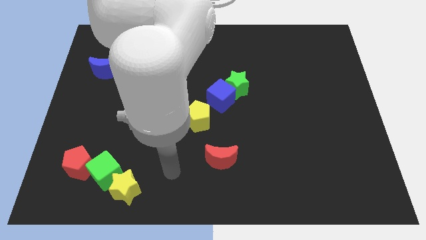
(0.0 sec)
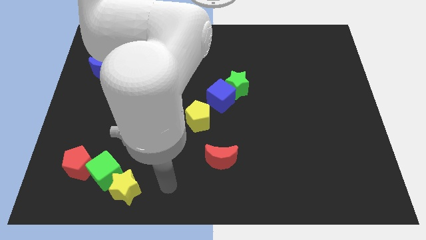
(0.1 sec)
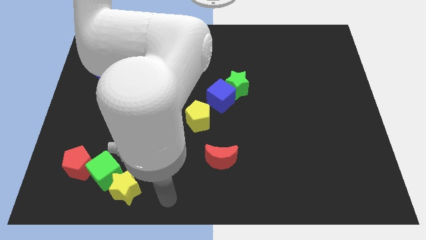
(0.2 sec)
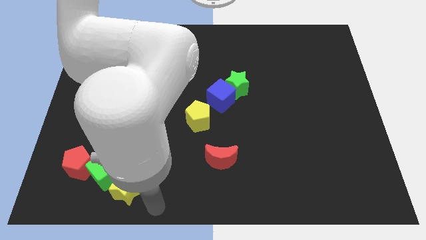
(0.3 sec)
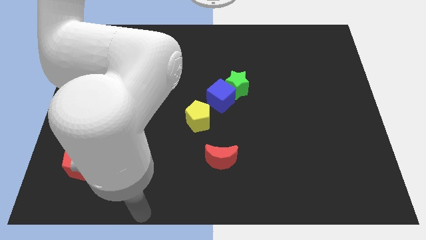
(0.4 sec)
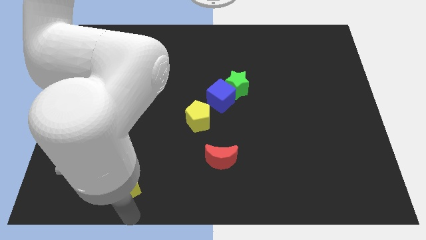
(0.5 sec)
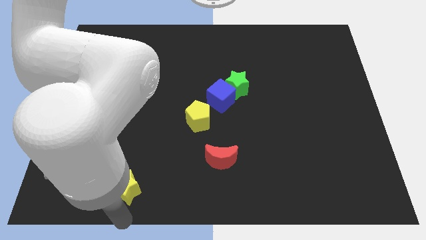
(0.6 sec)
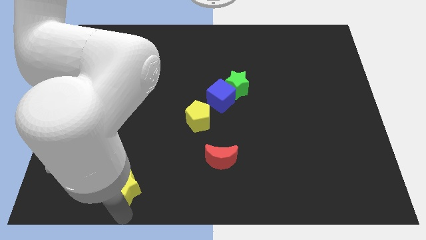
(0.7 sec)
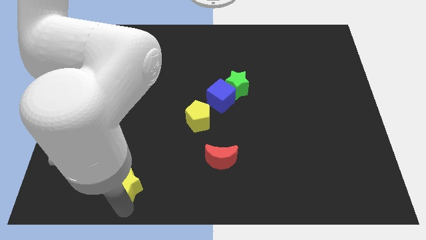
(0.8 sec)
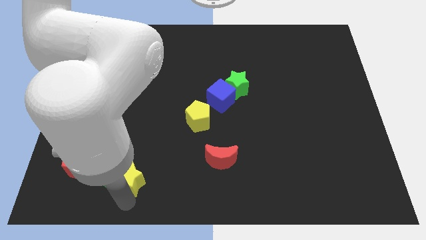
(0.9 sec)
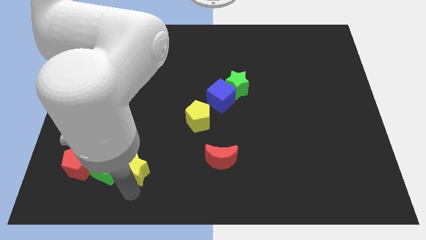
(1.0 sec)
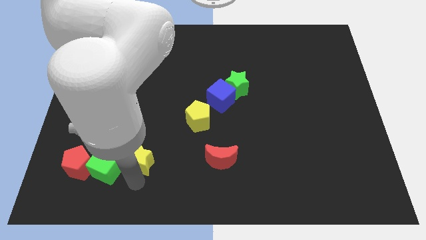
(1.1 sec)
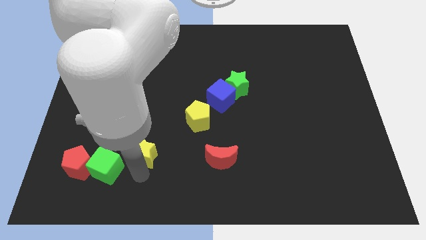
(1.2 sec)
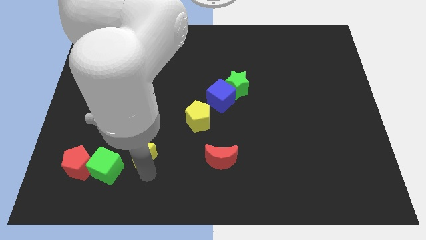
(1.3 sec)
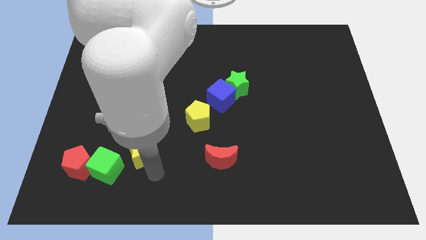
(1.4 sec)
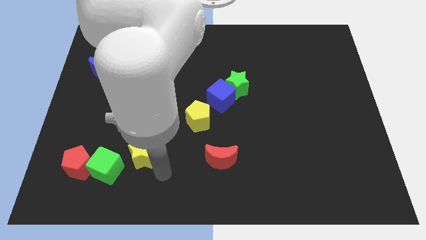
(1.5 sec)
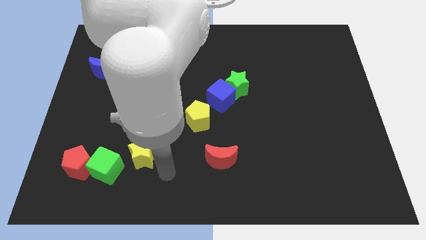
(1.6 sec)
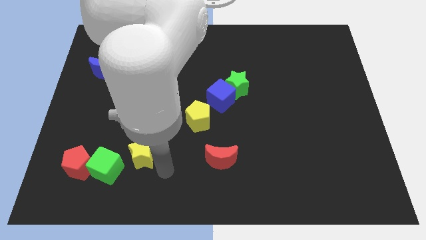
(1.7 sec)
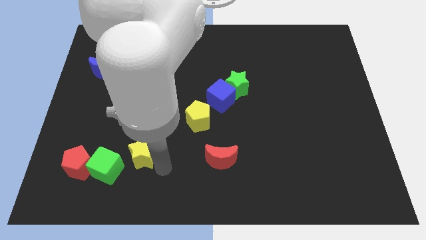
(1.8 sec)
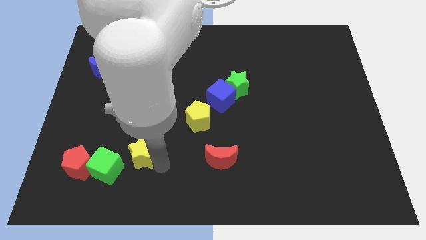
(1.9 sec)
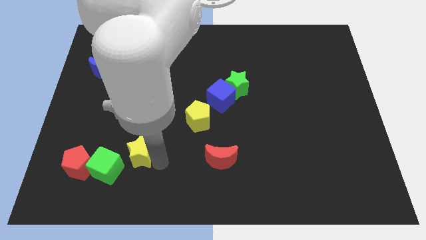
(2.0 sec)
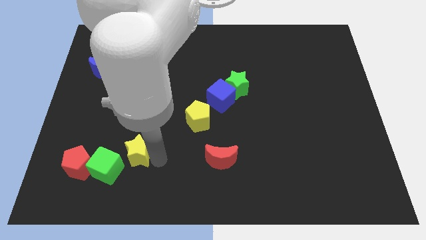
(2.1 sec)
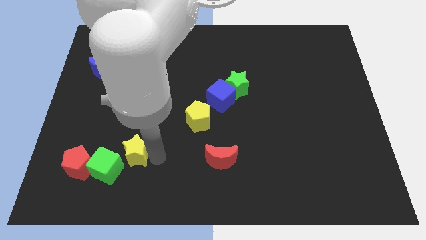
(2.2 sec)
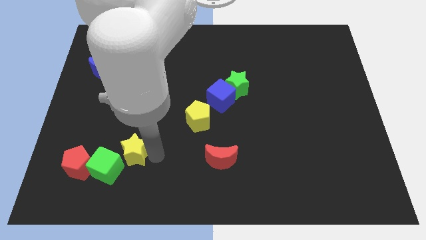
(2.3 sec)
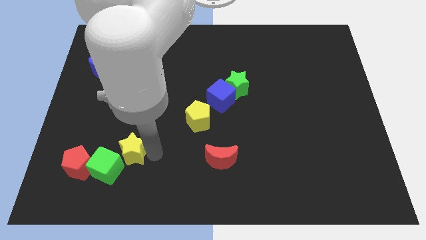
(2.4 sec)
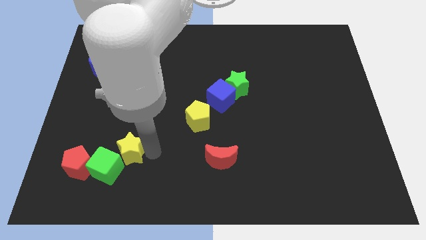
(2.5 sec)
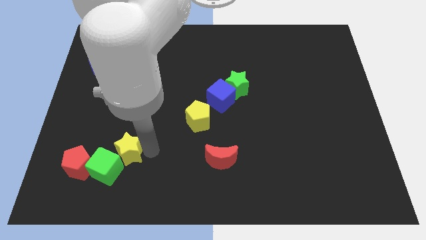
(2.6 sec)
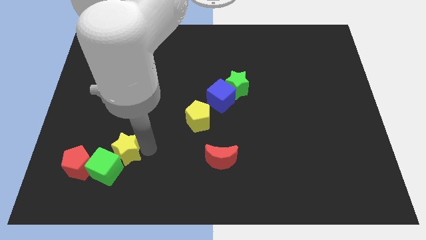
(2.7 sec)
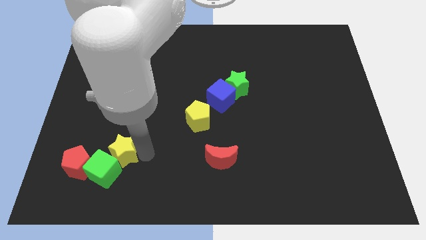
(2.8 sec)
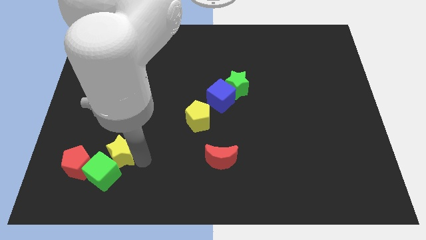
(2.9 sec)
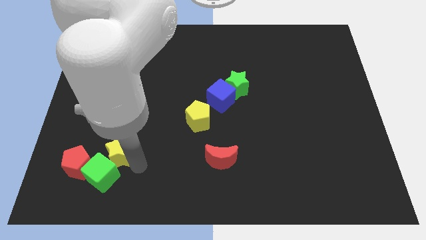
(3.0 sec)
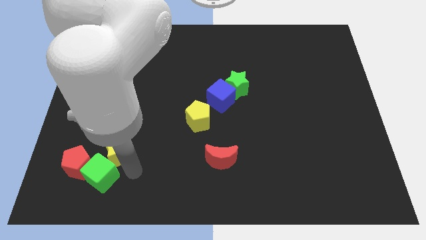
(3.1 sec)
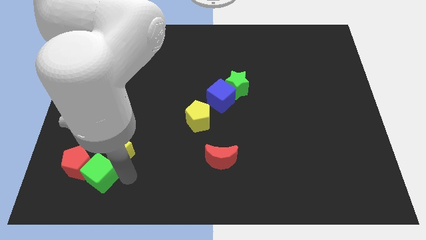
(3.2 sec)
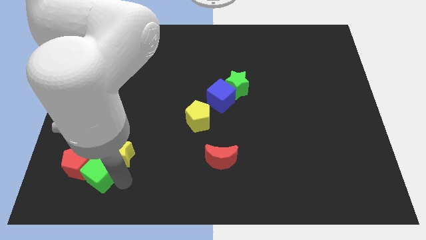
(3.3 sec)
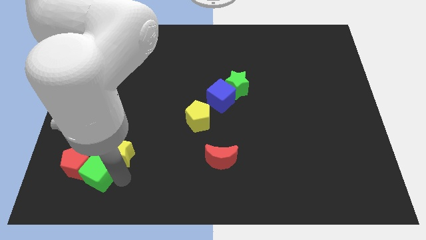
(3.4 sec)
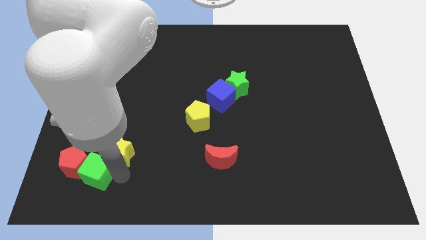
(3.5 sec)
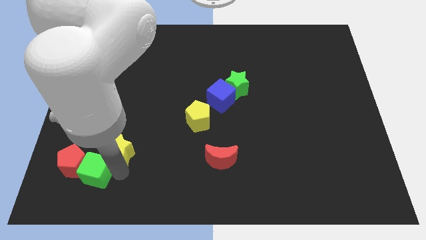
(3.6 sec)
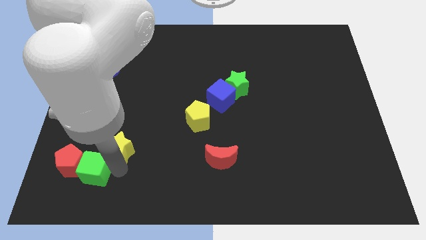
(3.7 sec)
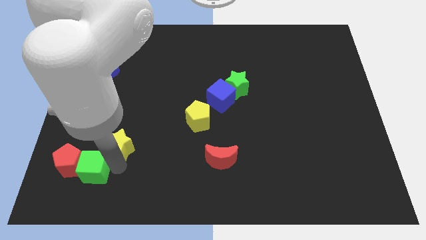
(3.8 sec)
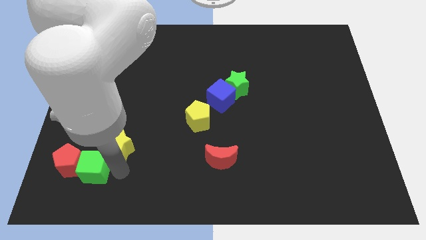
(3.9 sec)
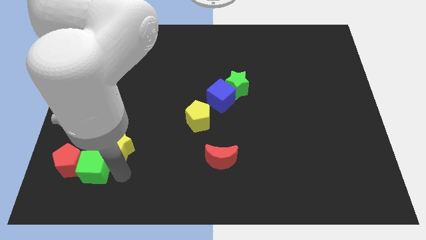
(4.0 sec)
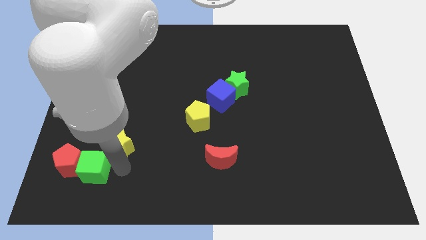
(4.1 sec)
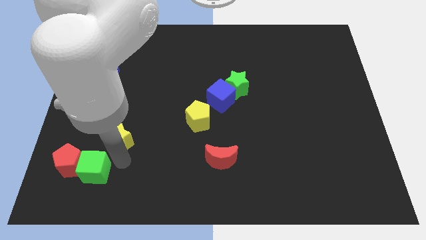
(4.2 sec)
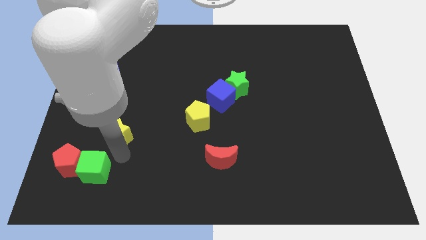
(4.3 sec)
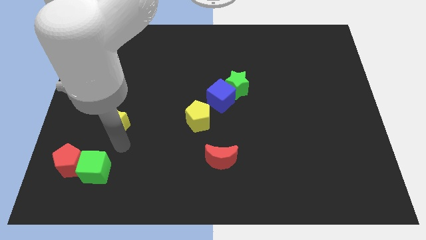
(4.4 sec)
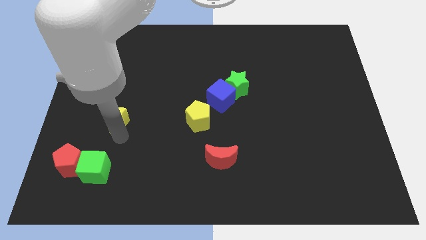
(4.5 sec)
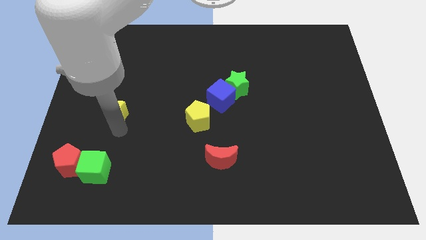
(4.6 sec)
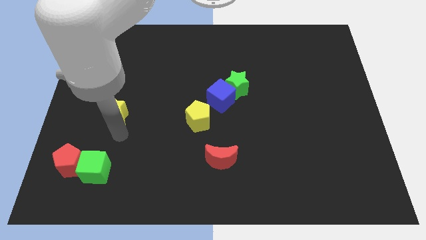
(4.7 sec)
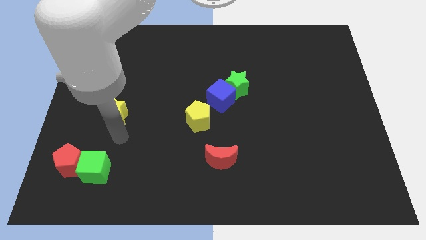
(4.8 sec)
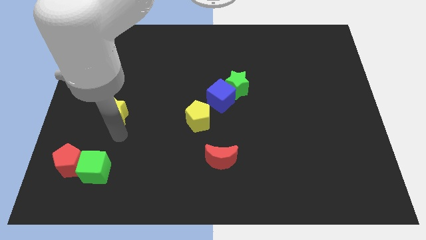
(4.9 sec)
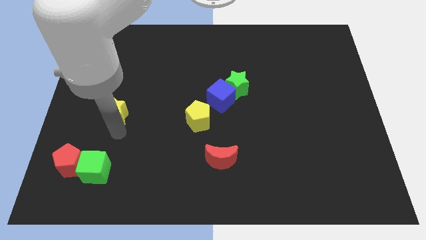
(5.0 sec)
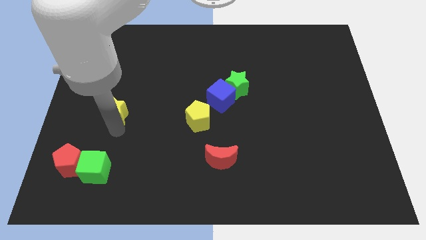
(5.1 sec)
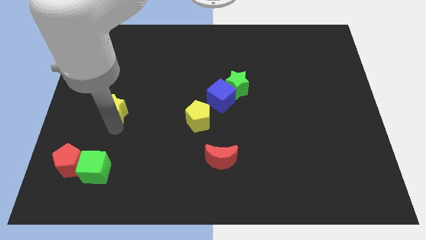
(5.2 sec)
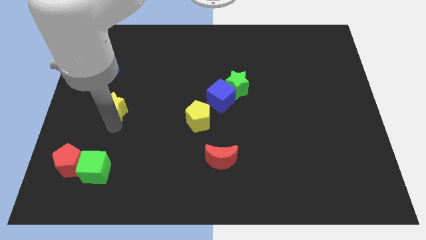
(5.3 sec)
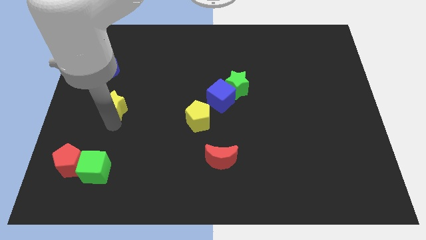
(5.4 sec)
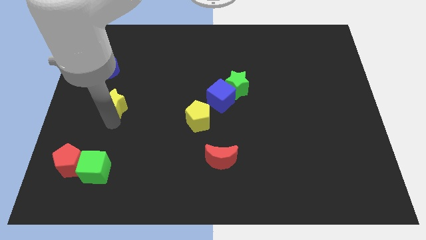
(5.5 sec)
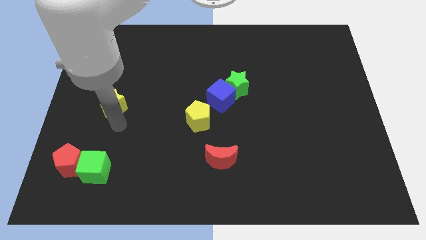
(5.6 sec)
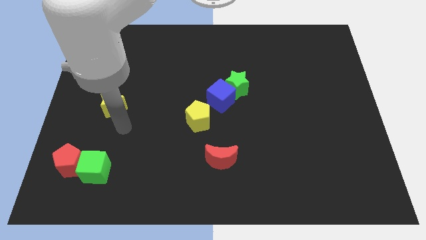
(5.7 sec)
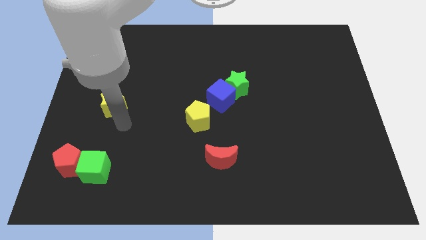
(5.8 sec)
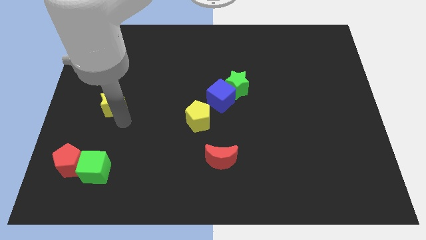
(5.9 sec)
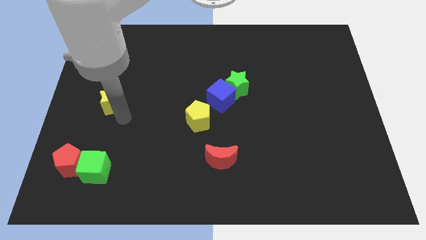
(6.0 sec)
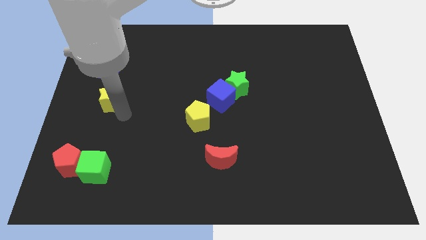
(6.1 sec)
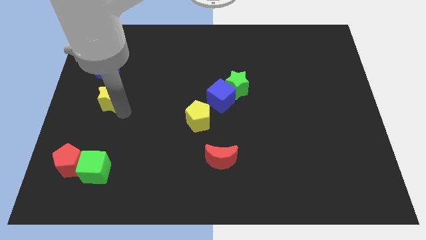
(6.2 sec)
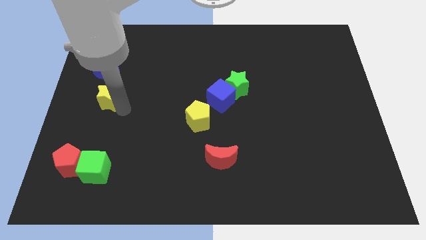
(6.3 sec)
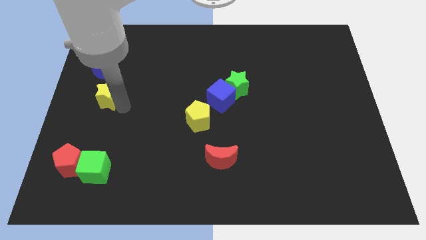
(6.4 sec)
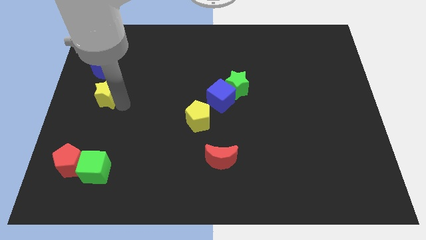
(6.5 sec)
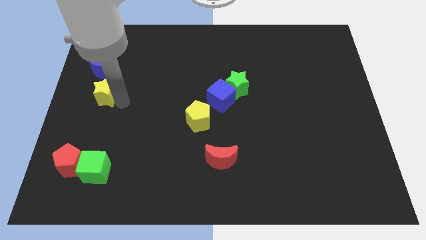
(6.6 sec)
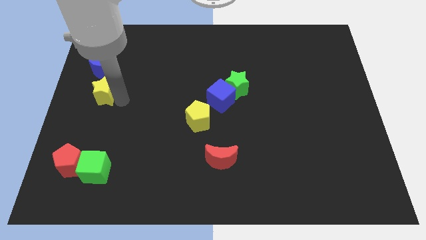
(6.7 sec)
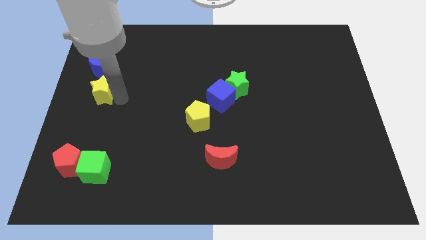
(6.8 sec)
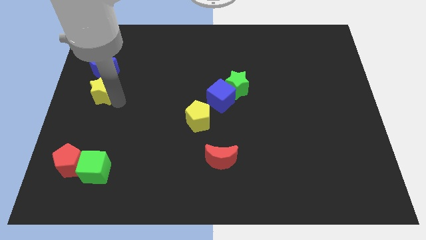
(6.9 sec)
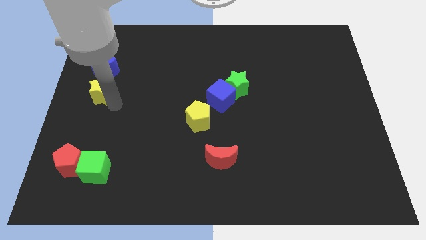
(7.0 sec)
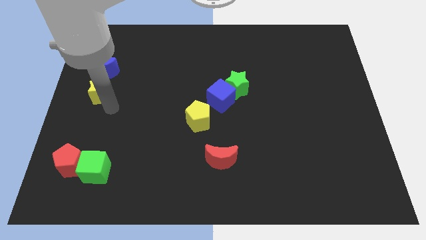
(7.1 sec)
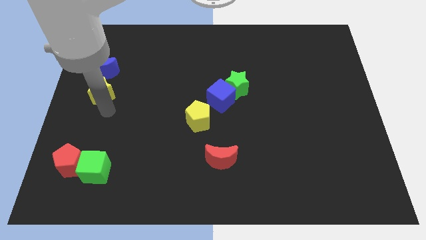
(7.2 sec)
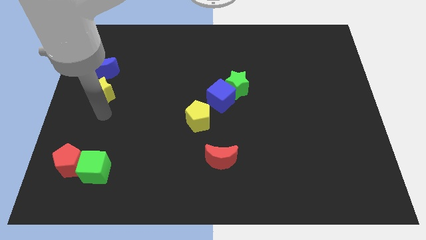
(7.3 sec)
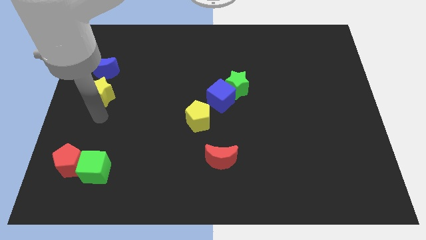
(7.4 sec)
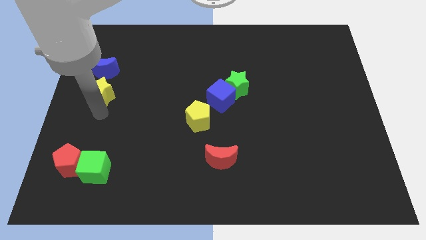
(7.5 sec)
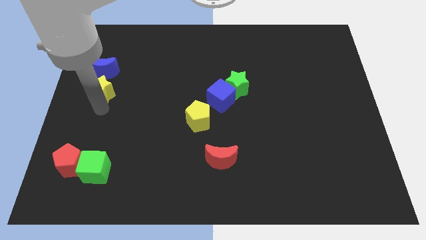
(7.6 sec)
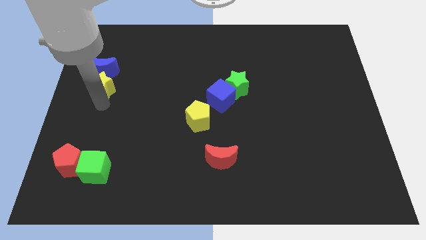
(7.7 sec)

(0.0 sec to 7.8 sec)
move the yellow star close to the blue moon
